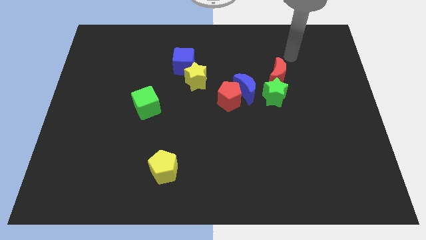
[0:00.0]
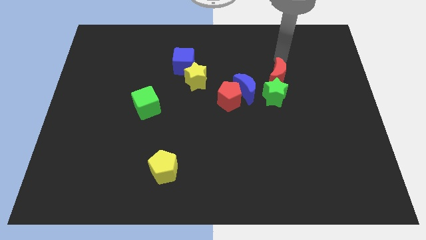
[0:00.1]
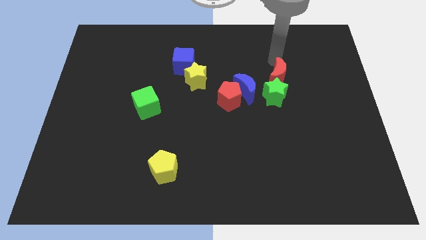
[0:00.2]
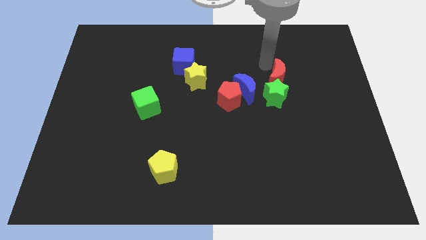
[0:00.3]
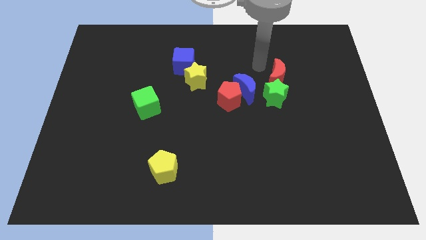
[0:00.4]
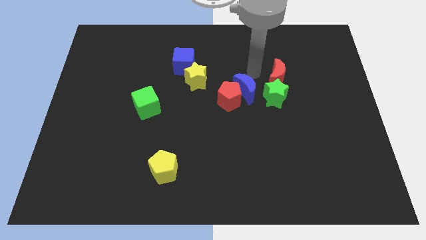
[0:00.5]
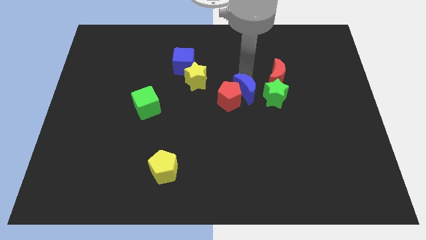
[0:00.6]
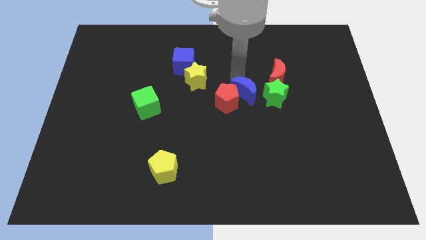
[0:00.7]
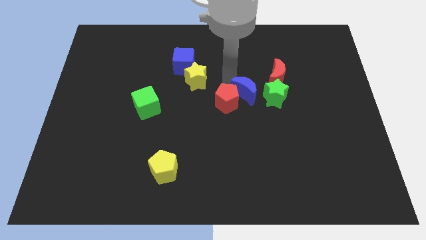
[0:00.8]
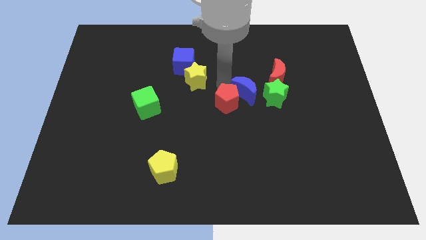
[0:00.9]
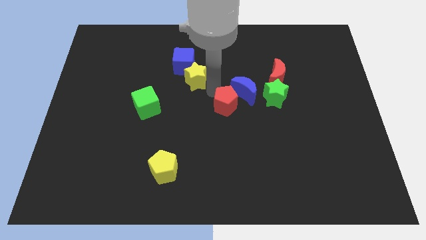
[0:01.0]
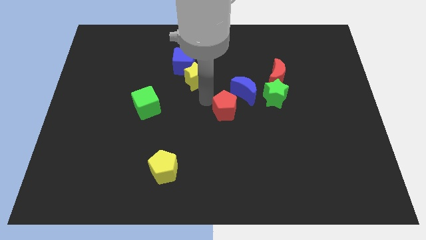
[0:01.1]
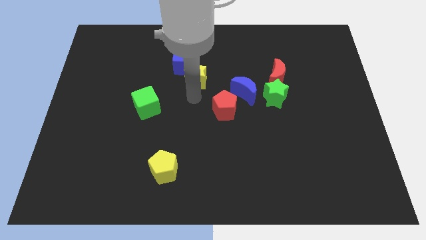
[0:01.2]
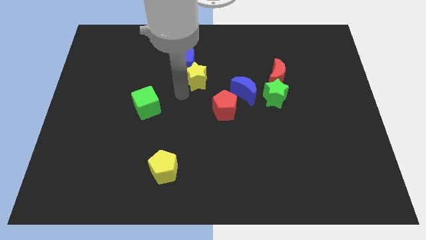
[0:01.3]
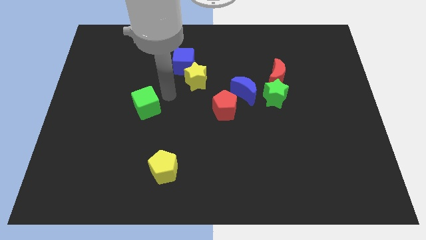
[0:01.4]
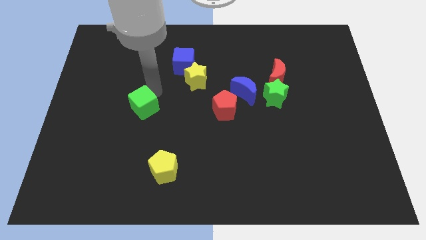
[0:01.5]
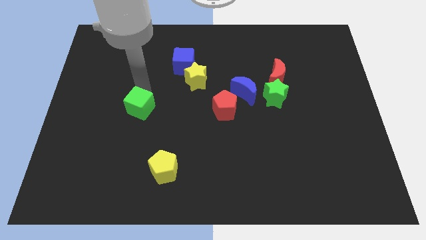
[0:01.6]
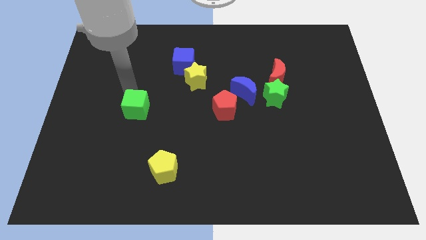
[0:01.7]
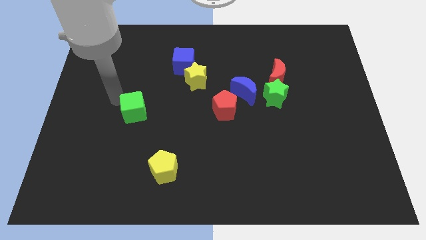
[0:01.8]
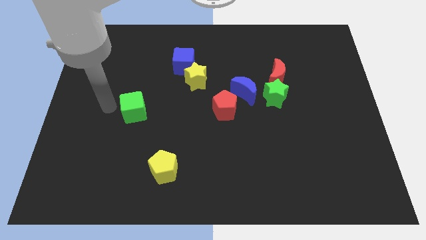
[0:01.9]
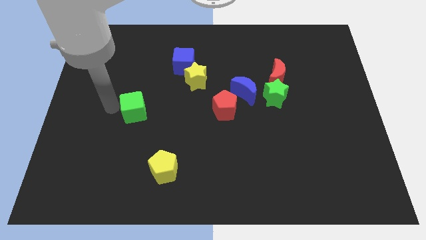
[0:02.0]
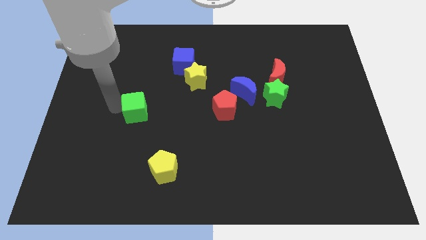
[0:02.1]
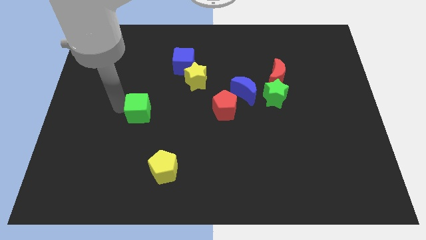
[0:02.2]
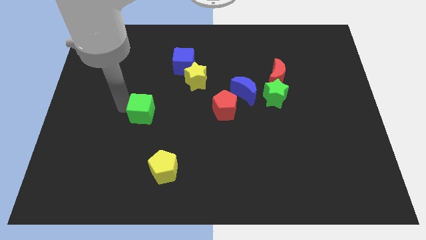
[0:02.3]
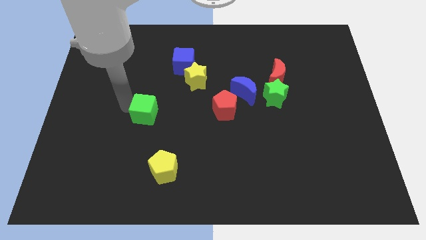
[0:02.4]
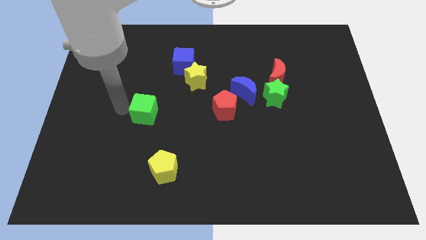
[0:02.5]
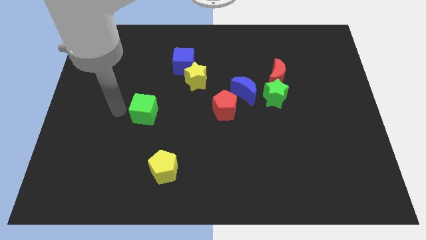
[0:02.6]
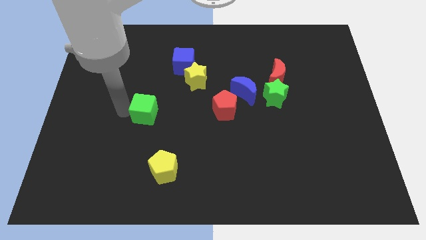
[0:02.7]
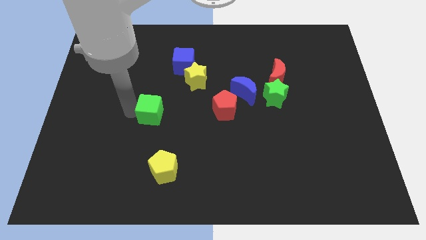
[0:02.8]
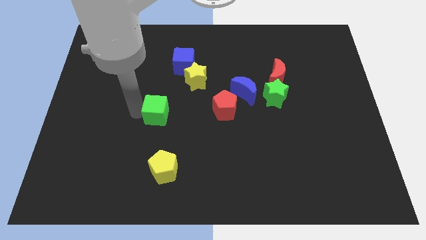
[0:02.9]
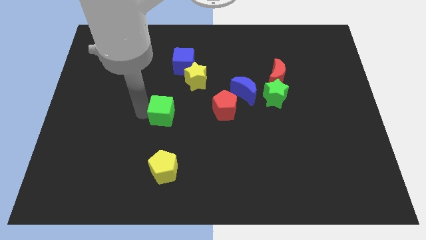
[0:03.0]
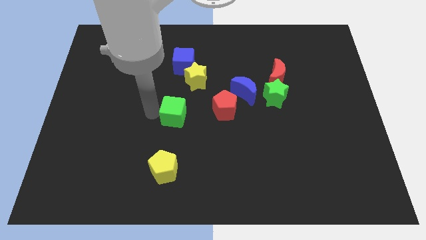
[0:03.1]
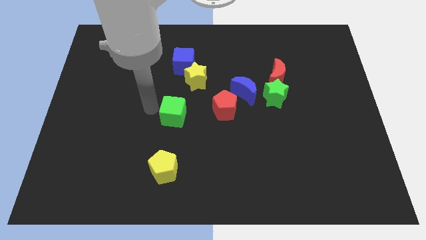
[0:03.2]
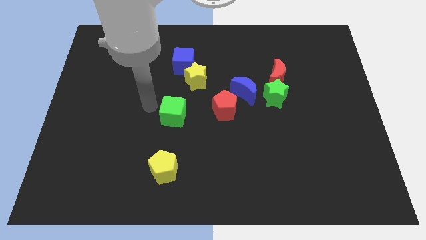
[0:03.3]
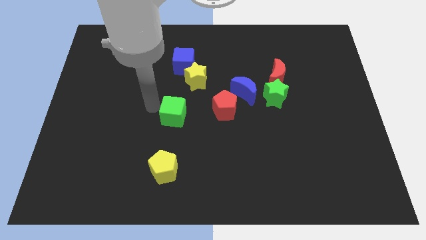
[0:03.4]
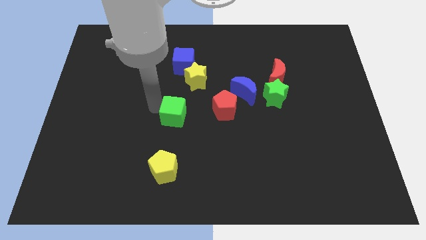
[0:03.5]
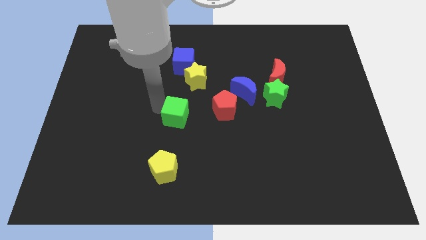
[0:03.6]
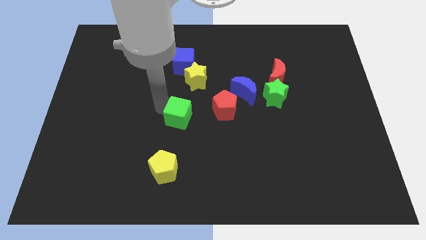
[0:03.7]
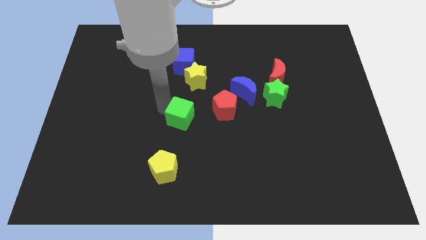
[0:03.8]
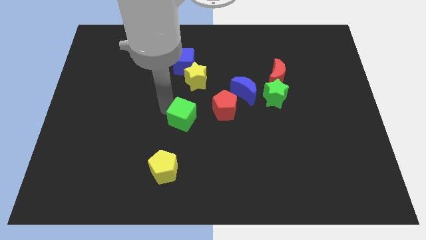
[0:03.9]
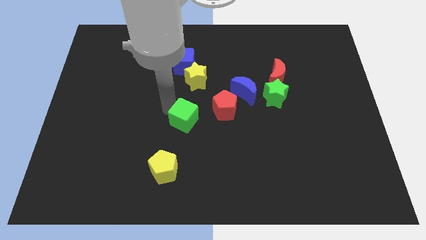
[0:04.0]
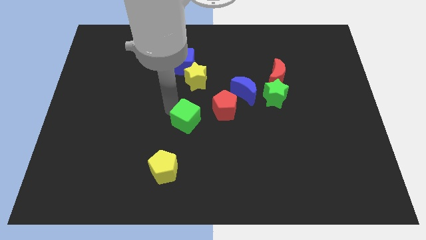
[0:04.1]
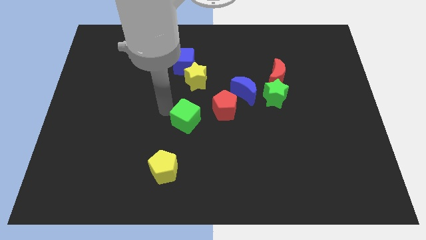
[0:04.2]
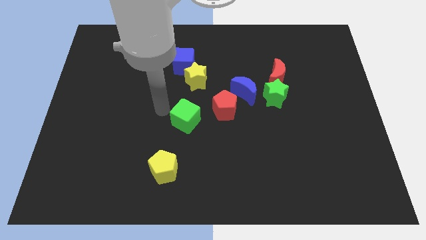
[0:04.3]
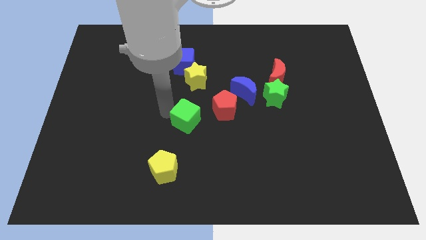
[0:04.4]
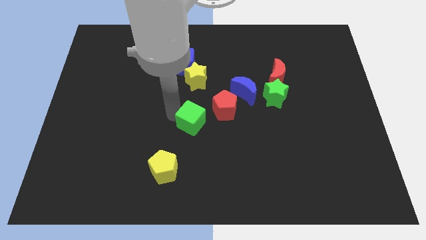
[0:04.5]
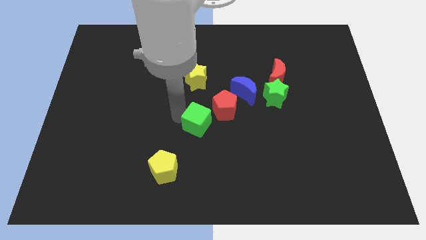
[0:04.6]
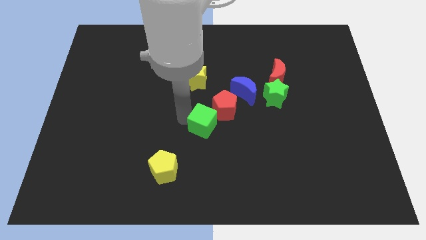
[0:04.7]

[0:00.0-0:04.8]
put the green cube to the bottom of the red pentagon

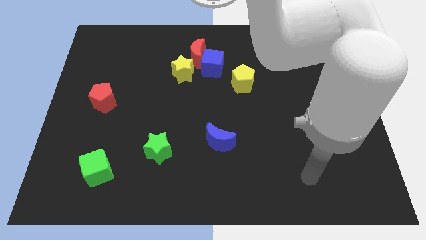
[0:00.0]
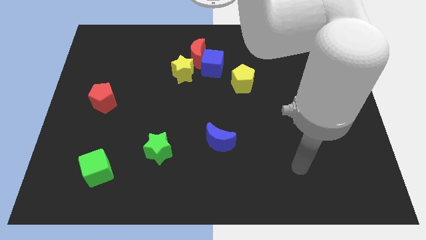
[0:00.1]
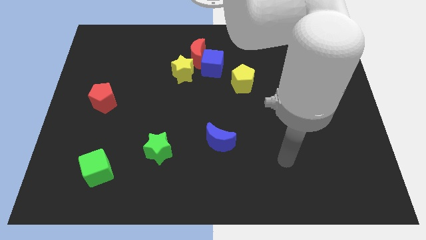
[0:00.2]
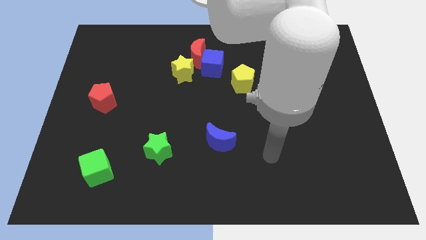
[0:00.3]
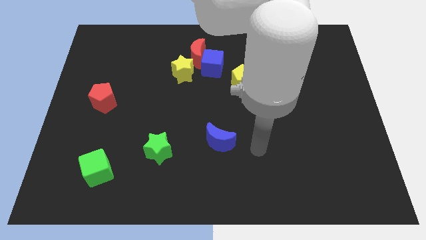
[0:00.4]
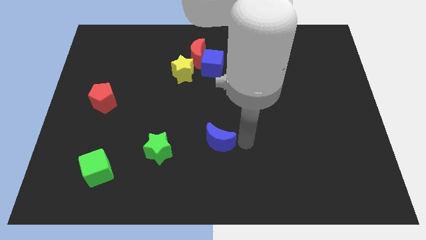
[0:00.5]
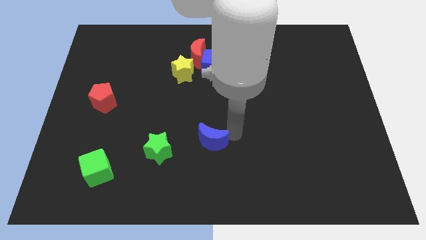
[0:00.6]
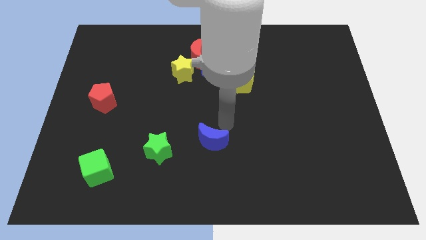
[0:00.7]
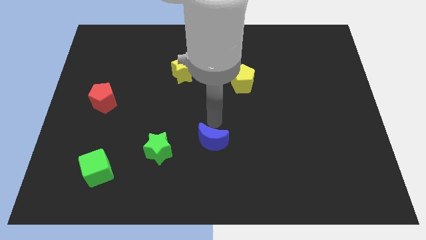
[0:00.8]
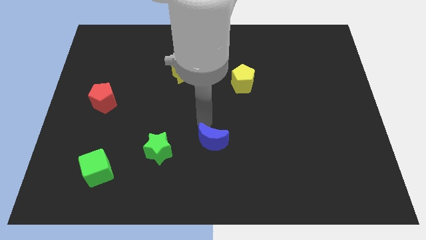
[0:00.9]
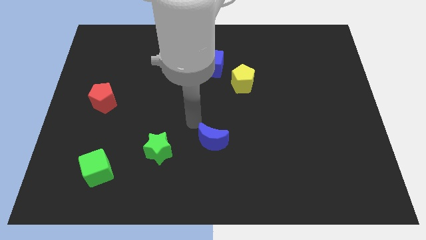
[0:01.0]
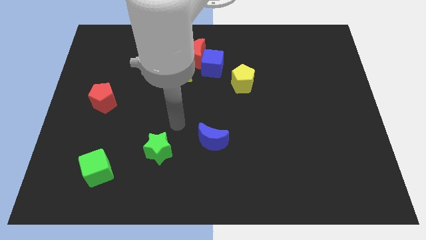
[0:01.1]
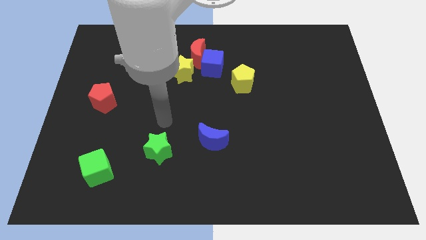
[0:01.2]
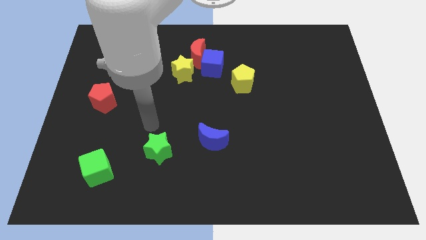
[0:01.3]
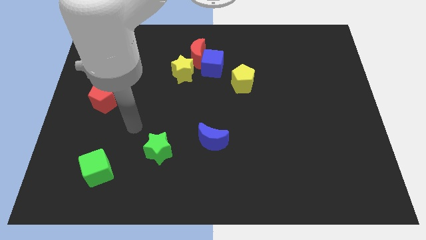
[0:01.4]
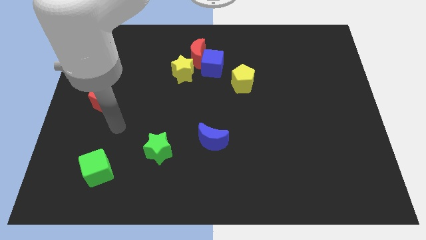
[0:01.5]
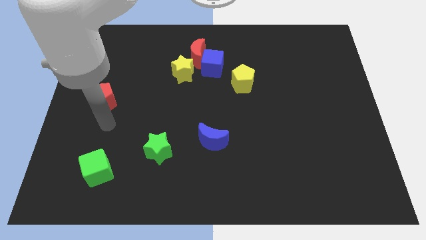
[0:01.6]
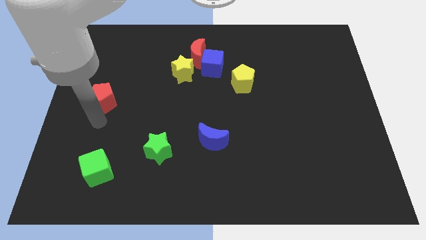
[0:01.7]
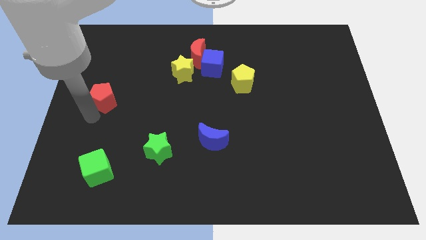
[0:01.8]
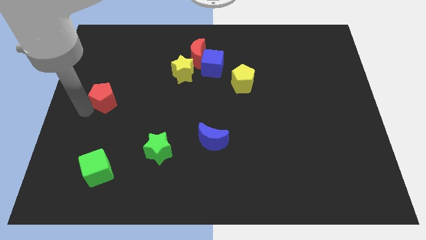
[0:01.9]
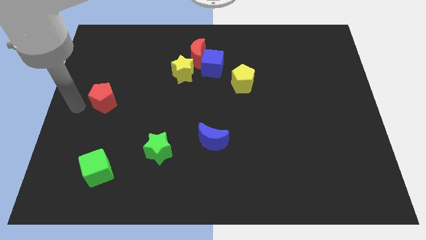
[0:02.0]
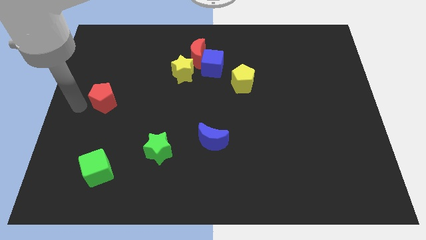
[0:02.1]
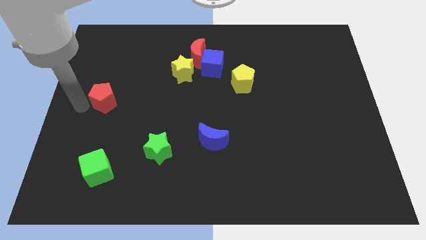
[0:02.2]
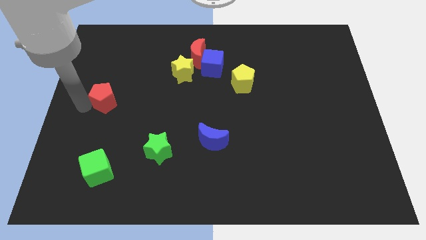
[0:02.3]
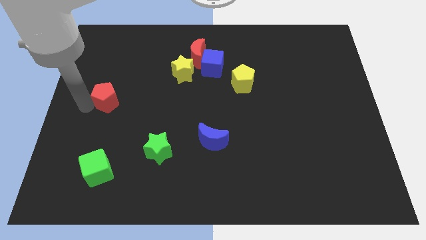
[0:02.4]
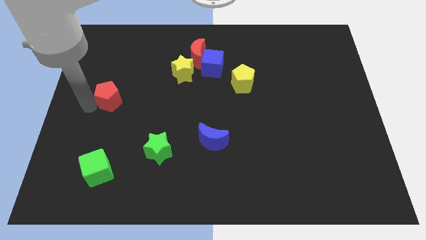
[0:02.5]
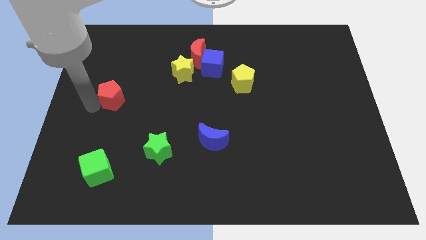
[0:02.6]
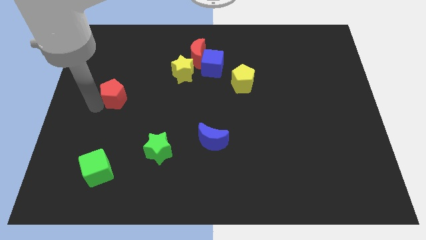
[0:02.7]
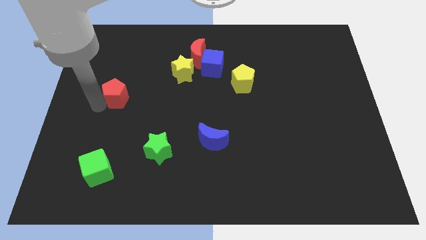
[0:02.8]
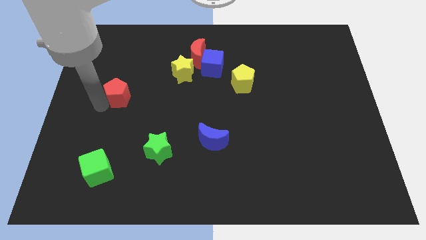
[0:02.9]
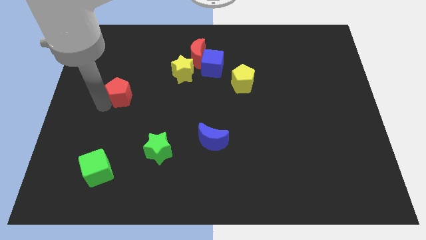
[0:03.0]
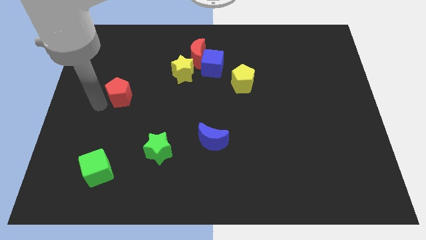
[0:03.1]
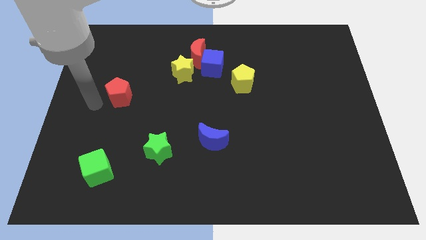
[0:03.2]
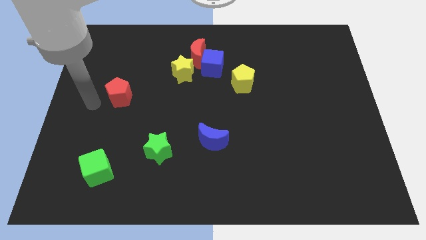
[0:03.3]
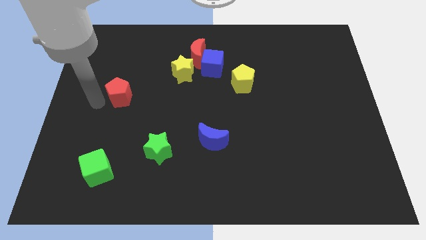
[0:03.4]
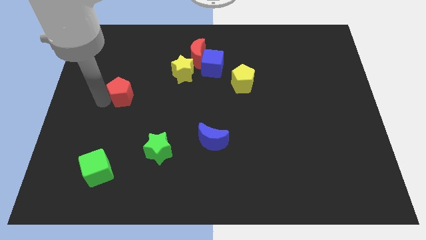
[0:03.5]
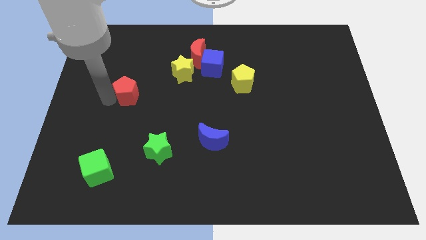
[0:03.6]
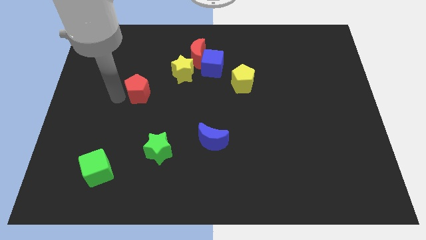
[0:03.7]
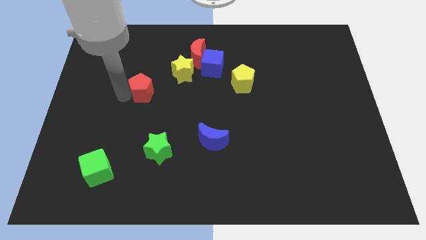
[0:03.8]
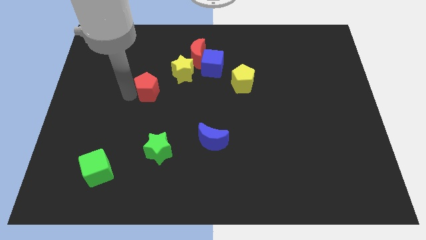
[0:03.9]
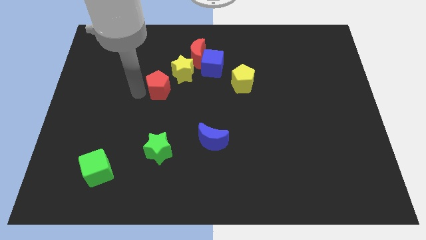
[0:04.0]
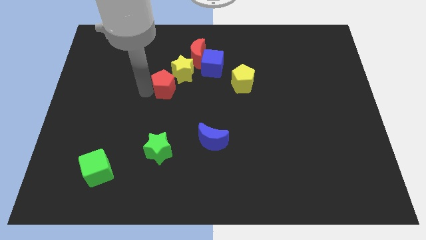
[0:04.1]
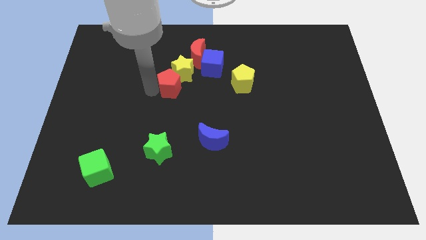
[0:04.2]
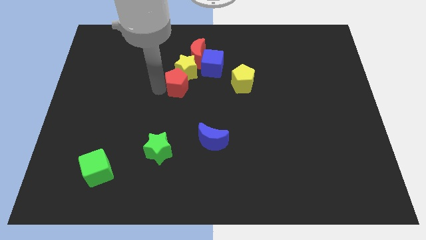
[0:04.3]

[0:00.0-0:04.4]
put the red pentagon to the bottom of the red moon
